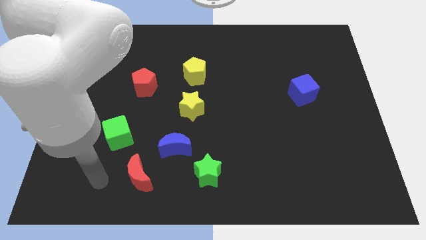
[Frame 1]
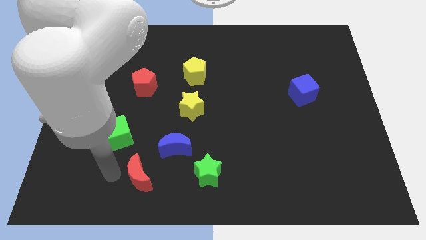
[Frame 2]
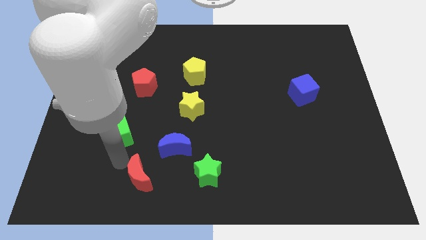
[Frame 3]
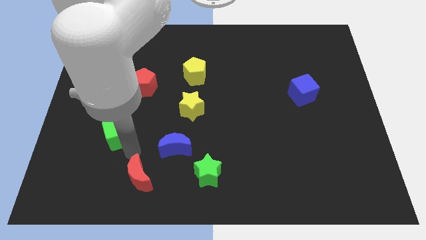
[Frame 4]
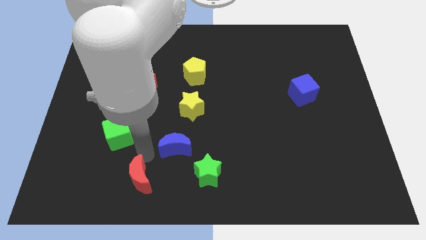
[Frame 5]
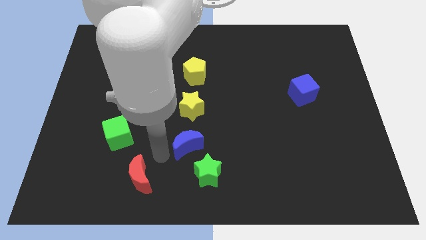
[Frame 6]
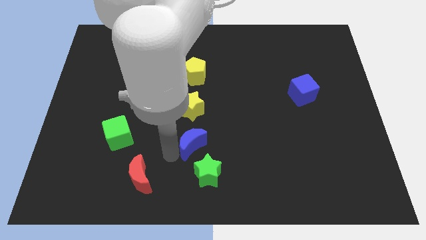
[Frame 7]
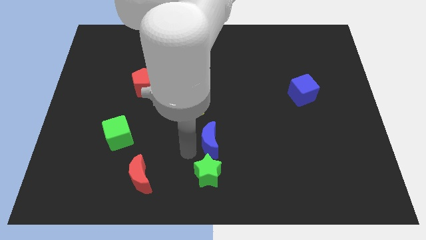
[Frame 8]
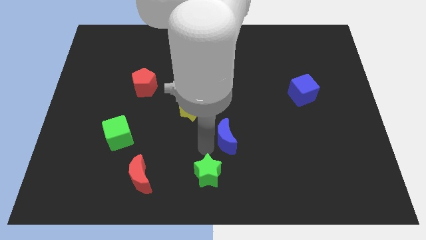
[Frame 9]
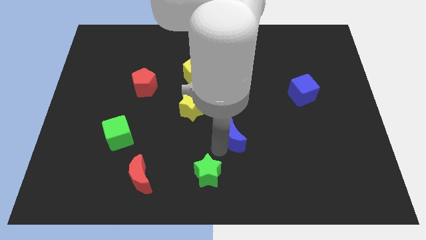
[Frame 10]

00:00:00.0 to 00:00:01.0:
separate the green star from the blue moon

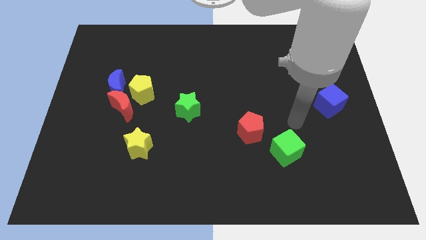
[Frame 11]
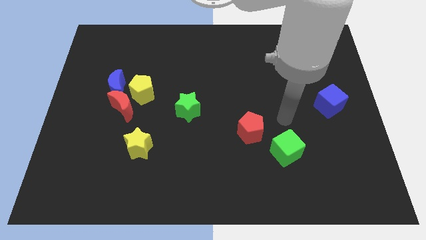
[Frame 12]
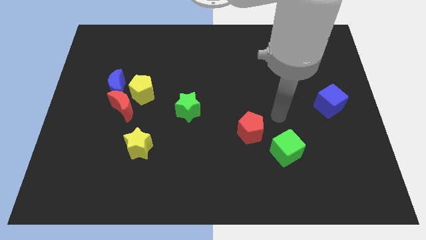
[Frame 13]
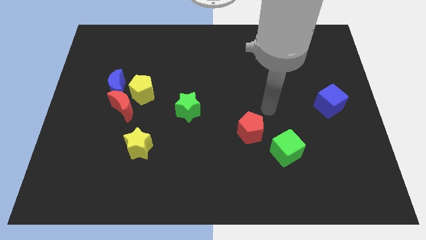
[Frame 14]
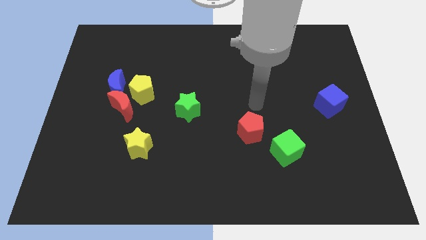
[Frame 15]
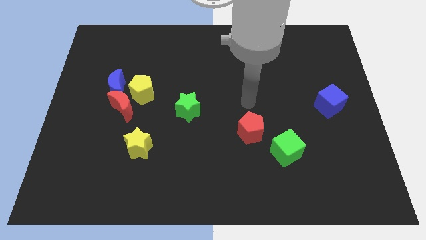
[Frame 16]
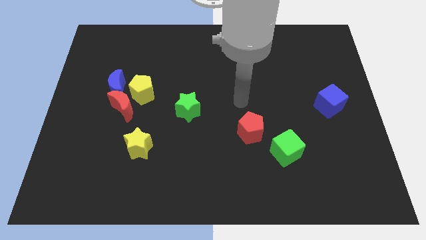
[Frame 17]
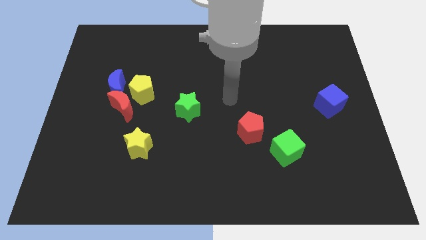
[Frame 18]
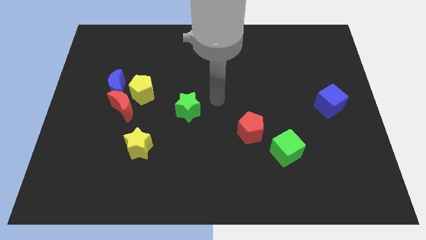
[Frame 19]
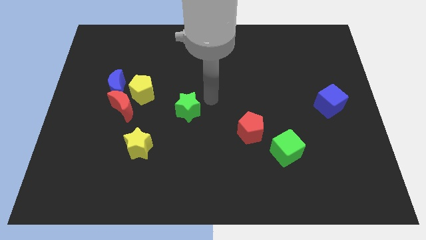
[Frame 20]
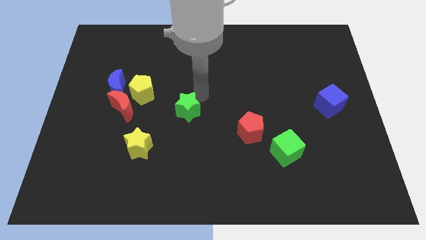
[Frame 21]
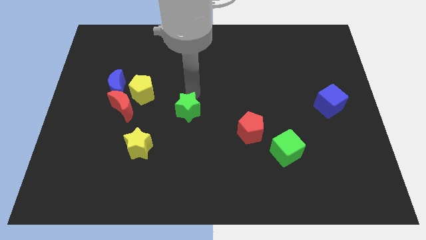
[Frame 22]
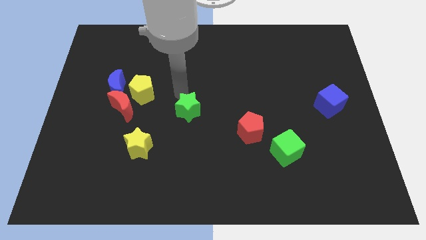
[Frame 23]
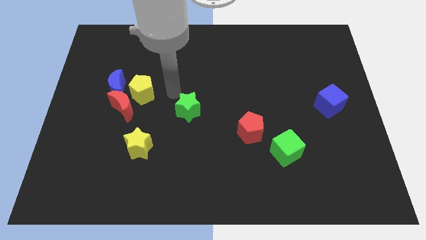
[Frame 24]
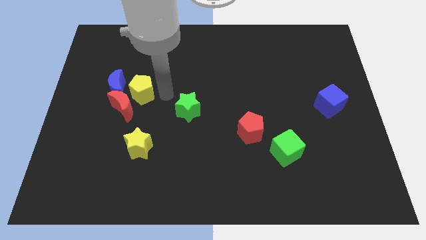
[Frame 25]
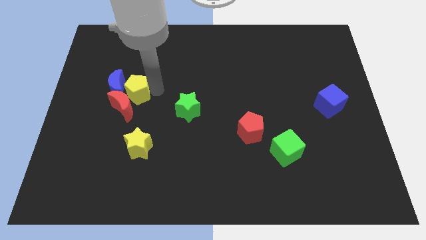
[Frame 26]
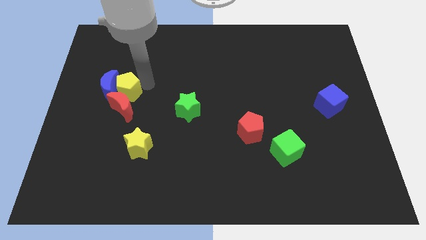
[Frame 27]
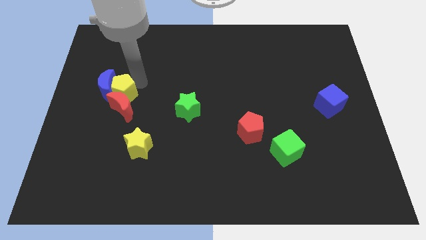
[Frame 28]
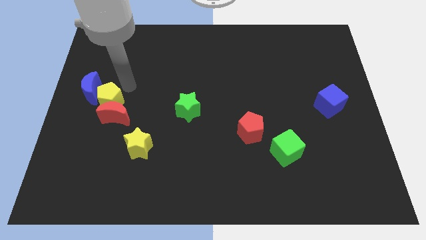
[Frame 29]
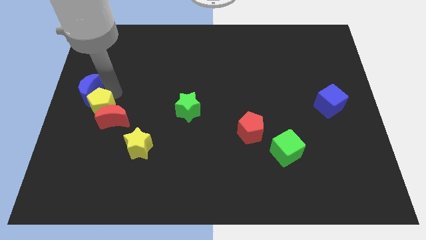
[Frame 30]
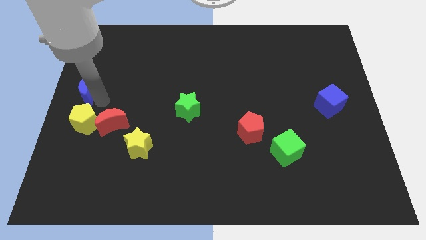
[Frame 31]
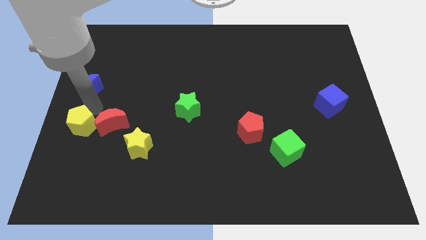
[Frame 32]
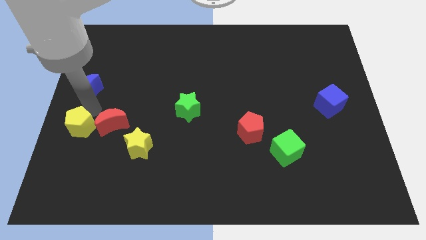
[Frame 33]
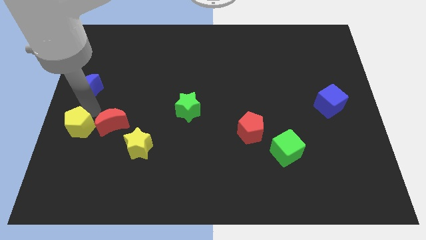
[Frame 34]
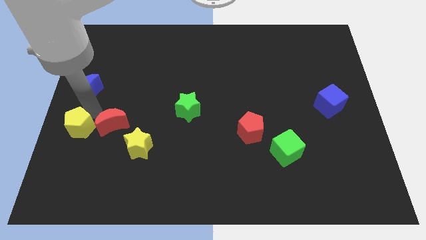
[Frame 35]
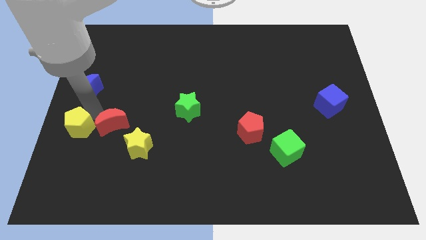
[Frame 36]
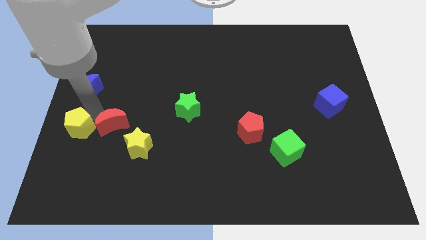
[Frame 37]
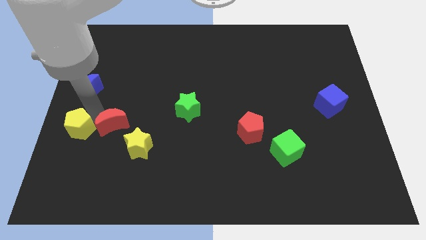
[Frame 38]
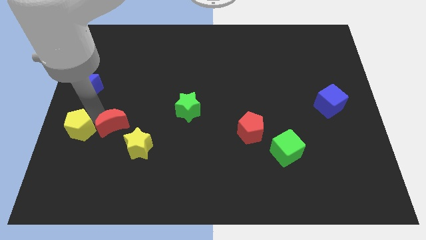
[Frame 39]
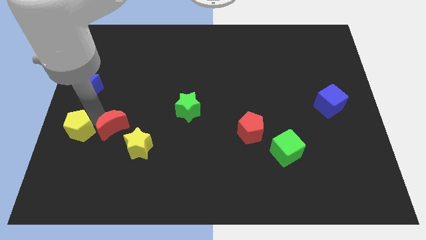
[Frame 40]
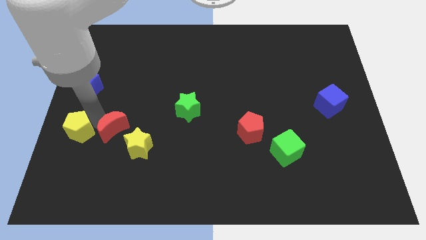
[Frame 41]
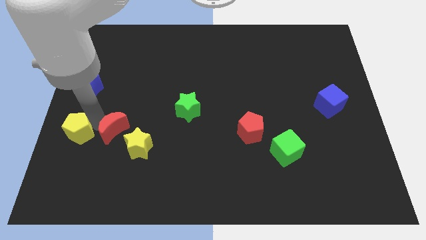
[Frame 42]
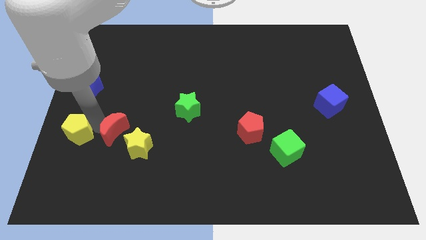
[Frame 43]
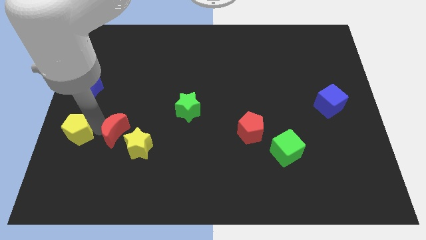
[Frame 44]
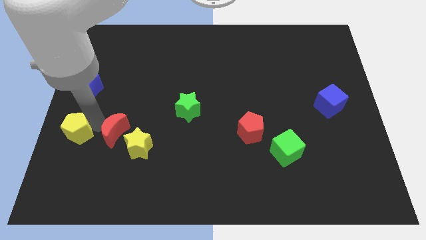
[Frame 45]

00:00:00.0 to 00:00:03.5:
move the red moon away from the blue moon and yellow pentagon

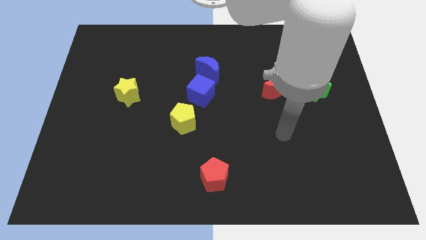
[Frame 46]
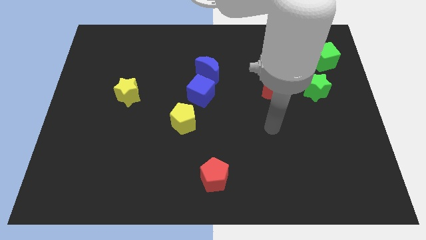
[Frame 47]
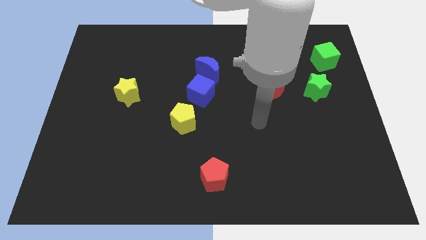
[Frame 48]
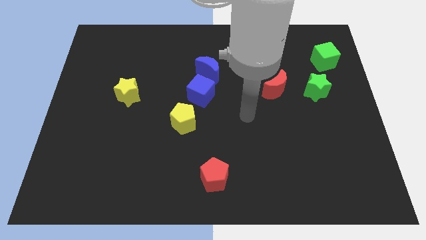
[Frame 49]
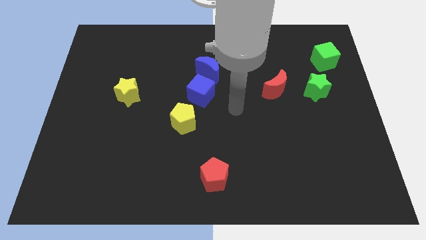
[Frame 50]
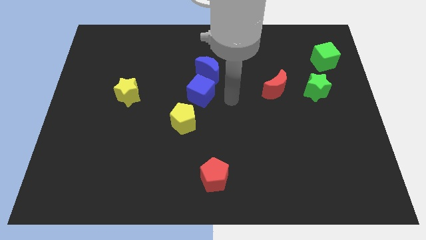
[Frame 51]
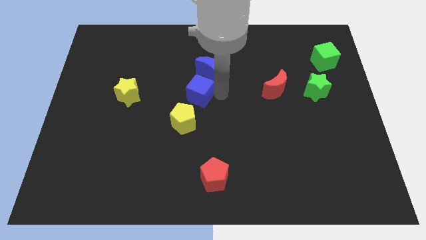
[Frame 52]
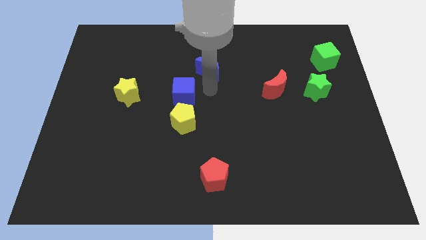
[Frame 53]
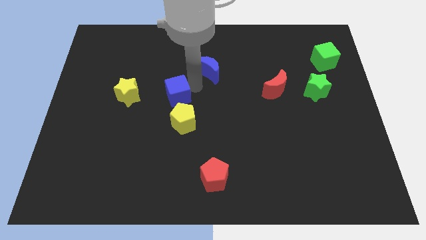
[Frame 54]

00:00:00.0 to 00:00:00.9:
separate the blue moon from the blue cube

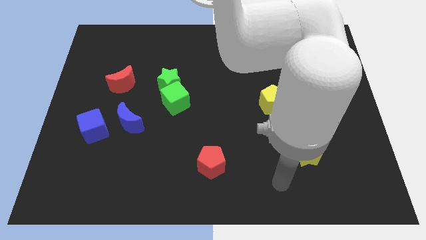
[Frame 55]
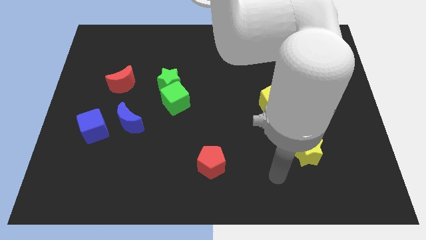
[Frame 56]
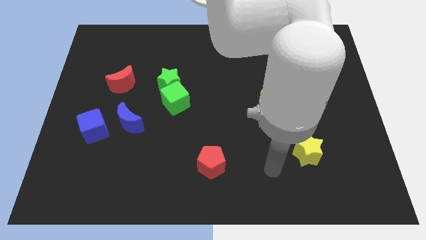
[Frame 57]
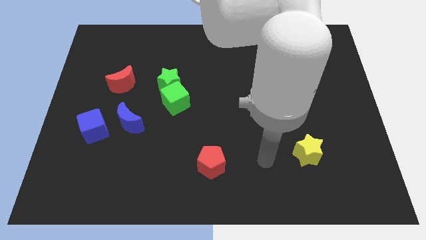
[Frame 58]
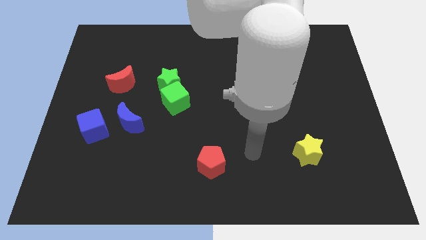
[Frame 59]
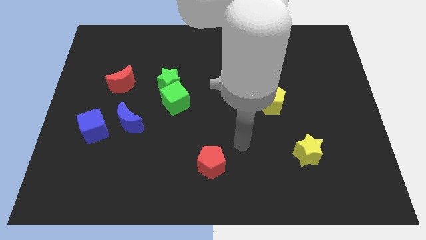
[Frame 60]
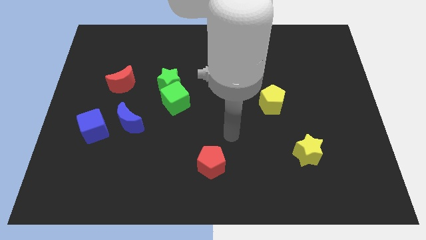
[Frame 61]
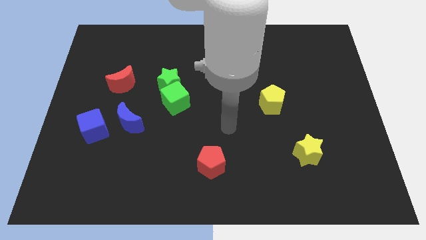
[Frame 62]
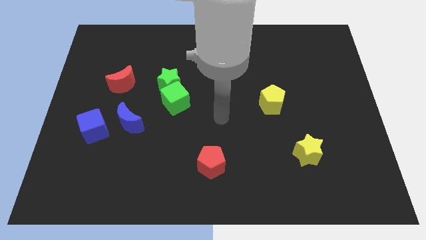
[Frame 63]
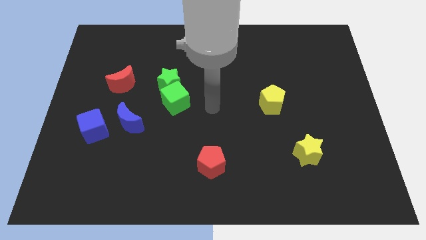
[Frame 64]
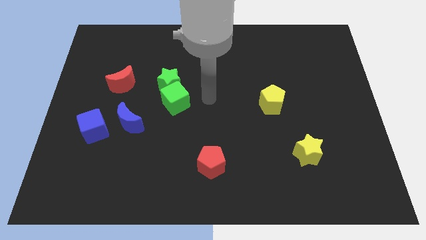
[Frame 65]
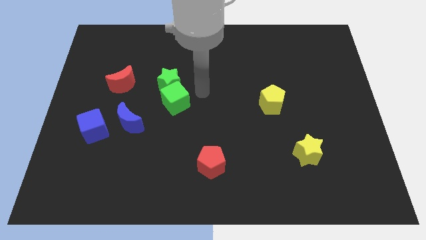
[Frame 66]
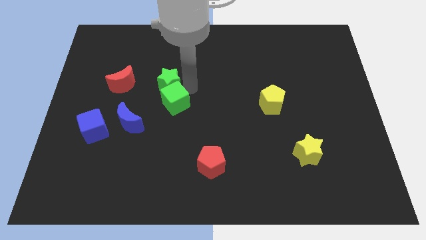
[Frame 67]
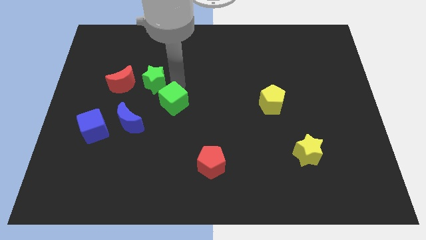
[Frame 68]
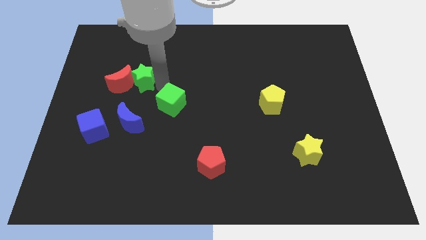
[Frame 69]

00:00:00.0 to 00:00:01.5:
separate the green cube from the green star

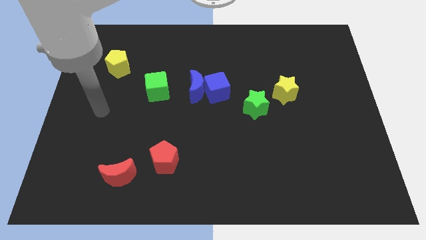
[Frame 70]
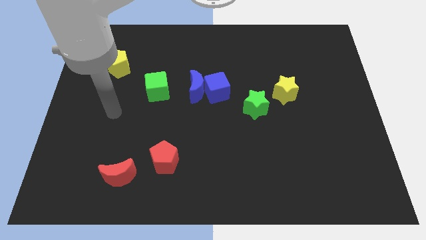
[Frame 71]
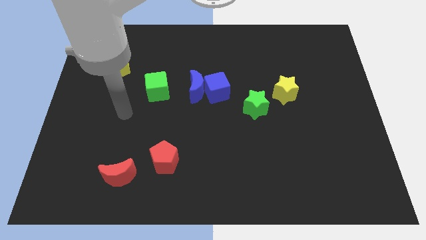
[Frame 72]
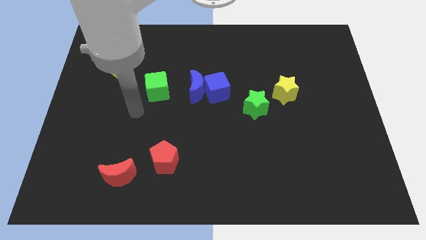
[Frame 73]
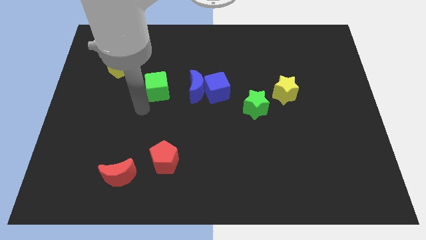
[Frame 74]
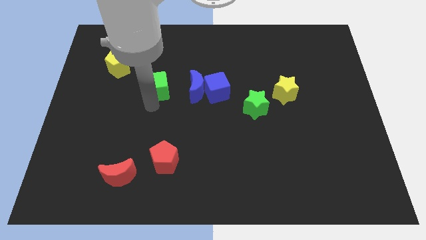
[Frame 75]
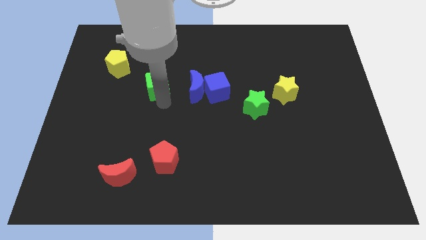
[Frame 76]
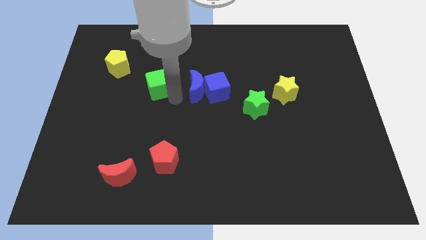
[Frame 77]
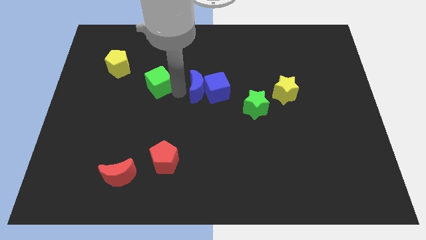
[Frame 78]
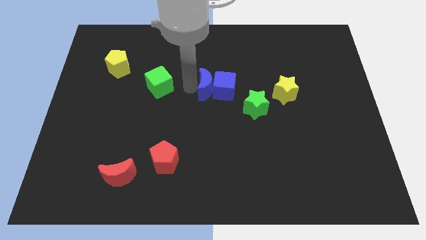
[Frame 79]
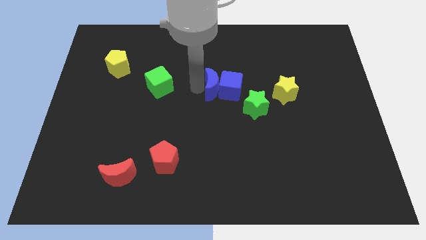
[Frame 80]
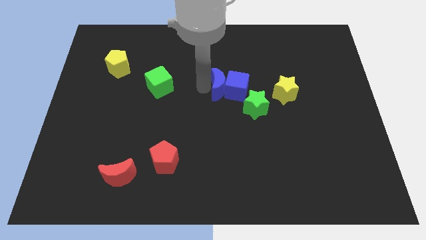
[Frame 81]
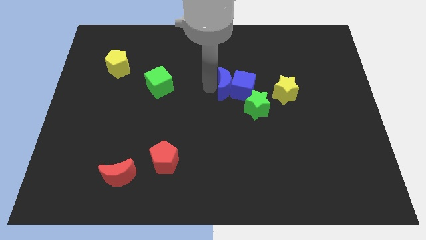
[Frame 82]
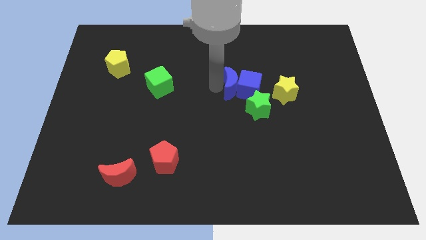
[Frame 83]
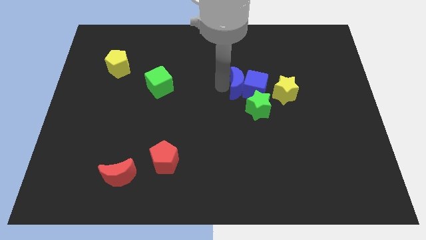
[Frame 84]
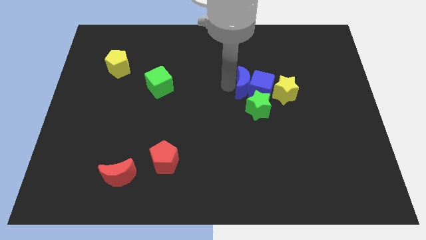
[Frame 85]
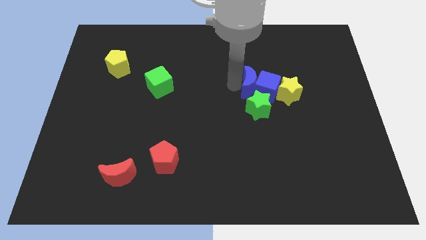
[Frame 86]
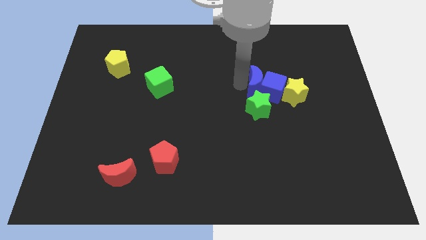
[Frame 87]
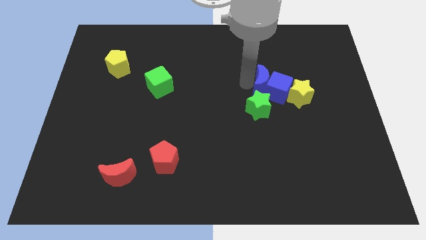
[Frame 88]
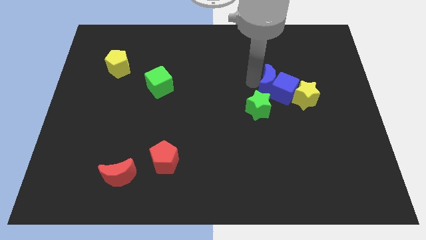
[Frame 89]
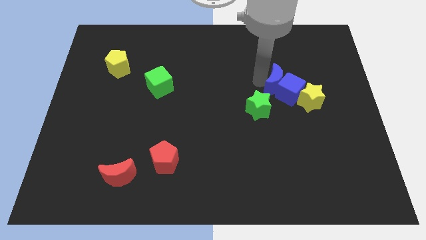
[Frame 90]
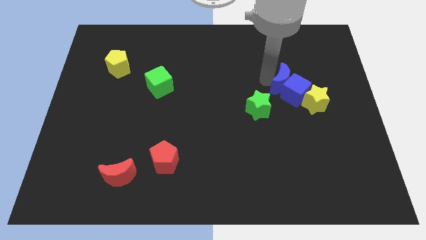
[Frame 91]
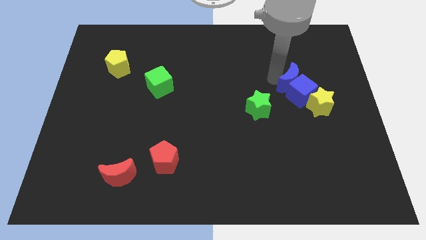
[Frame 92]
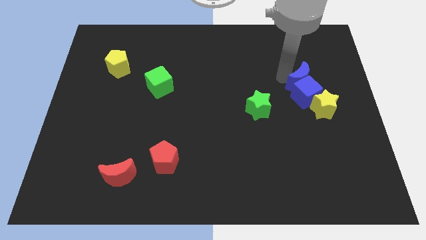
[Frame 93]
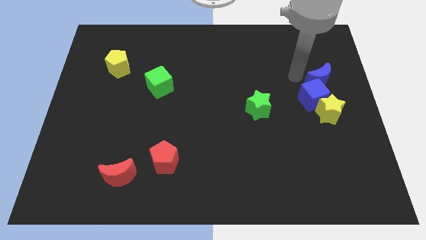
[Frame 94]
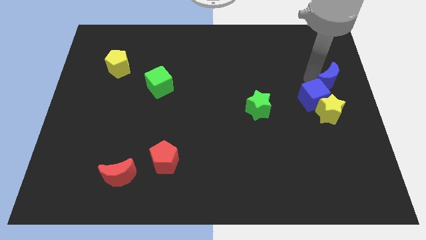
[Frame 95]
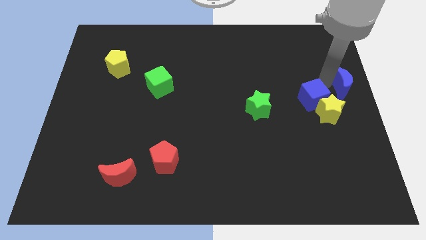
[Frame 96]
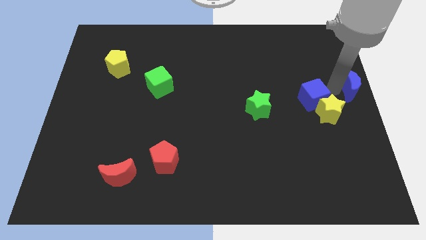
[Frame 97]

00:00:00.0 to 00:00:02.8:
pull the blue cube apart from the blue moon
